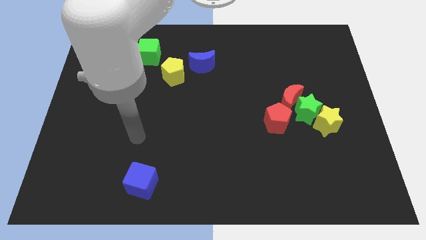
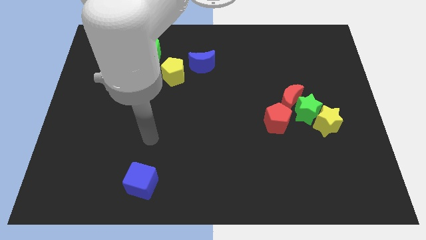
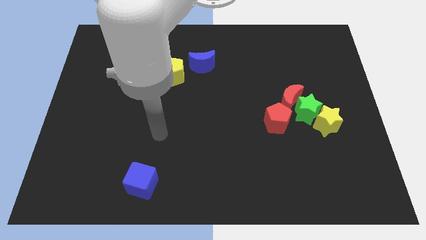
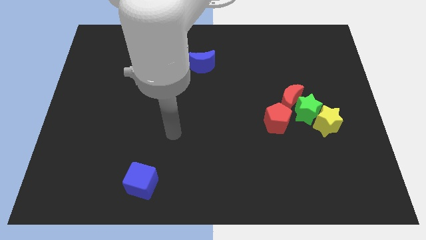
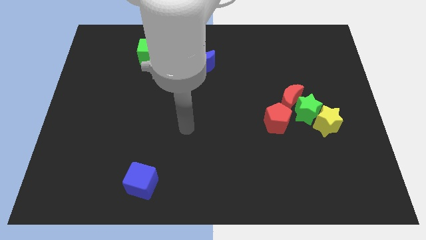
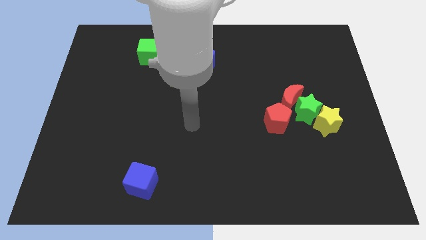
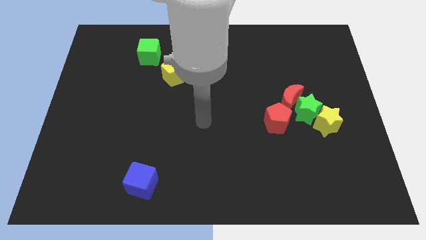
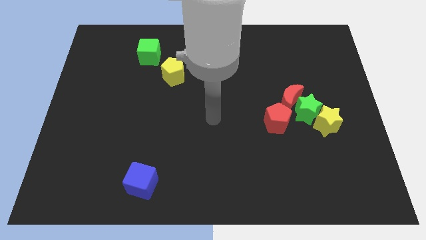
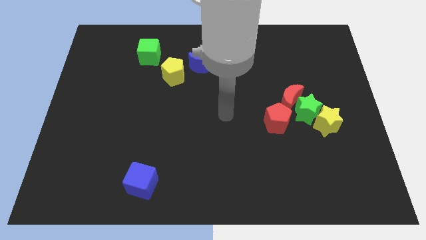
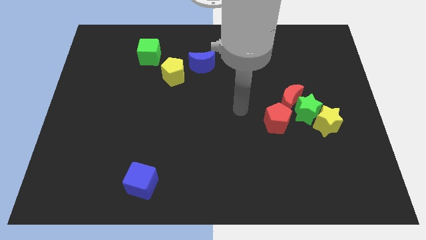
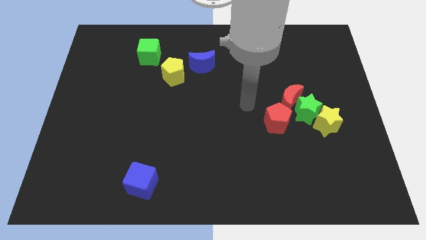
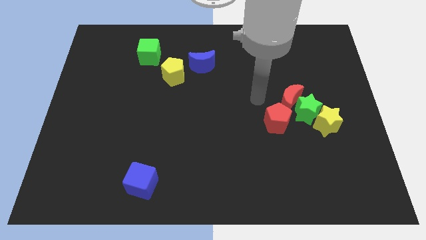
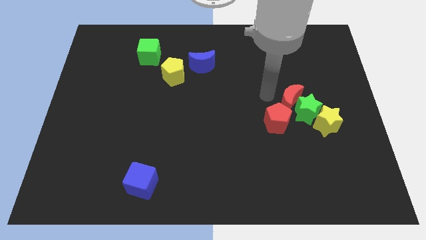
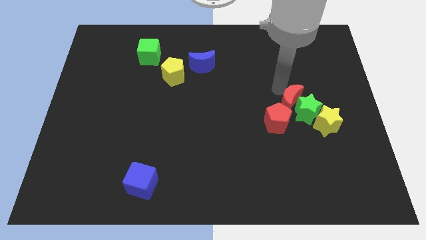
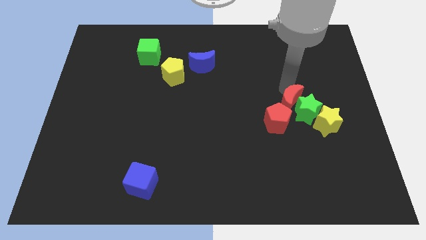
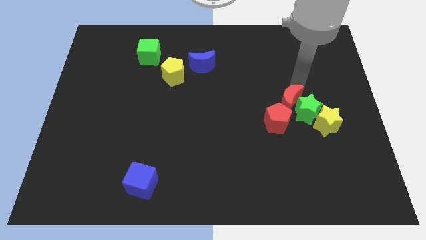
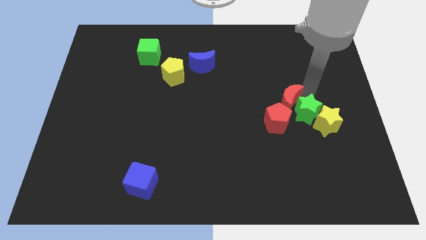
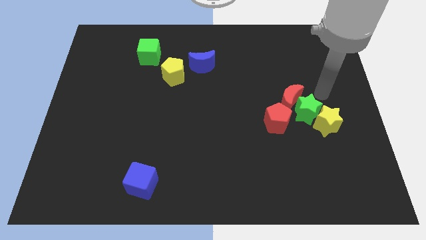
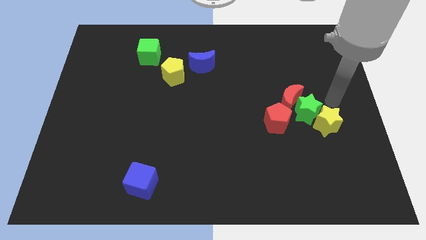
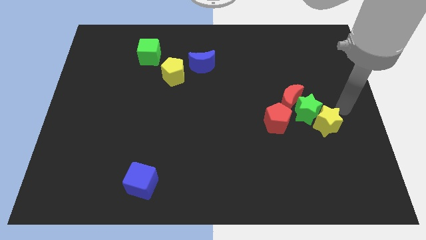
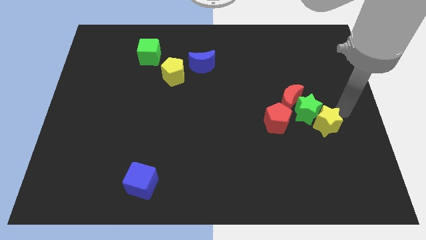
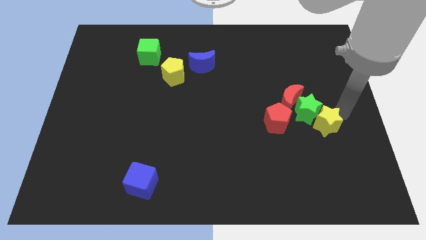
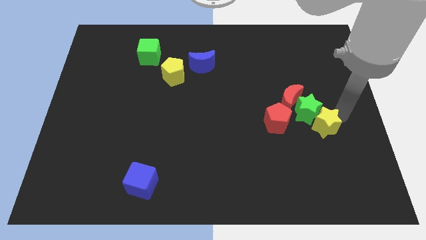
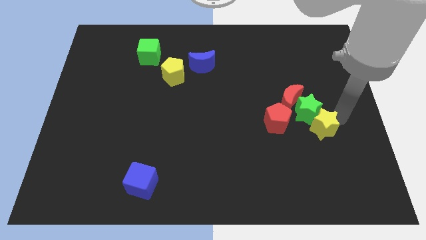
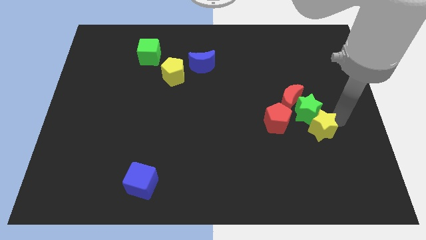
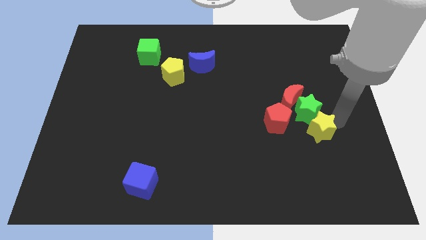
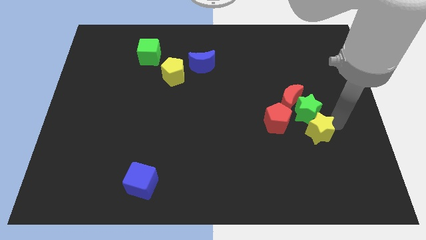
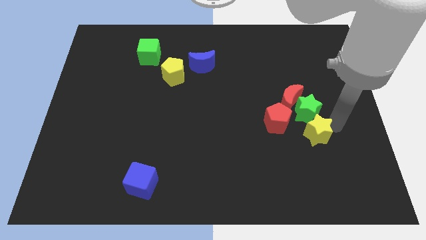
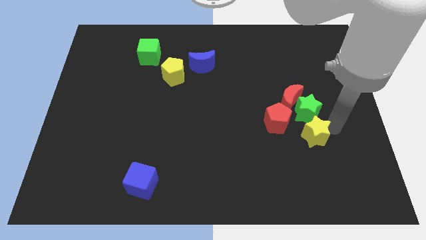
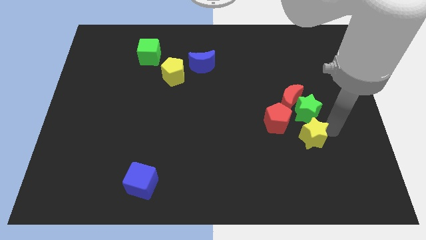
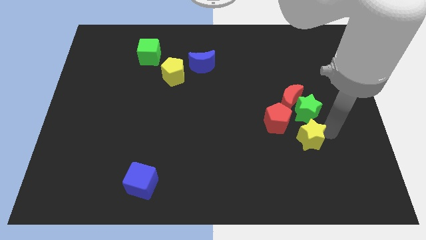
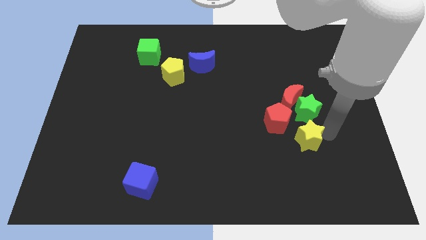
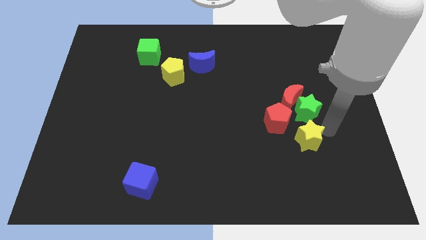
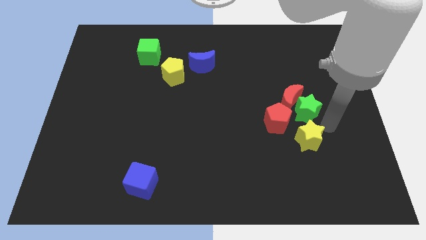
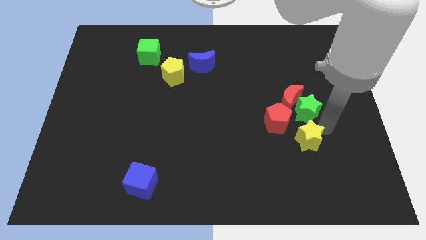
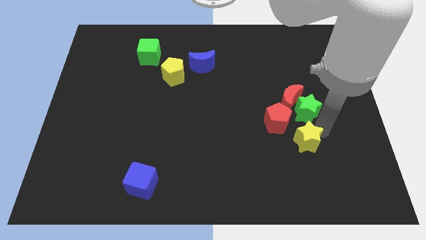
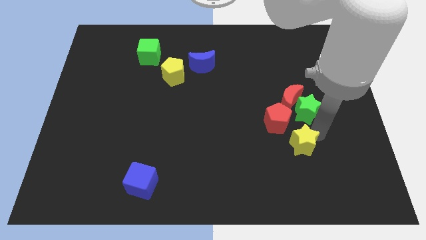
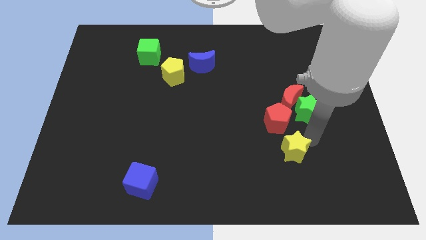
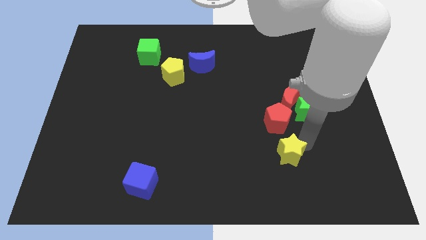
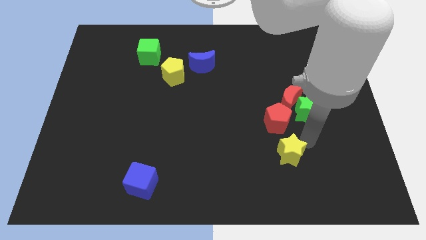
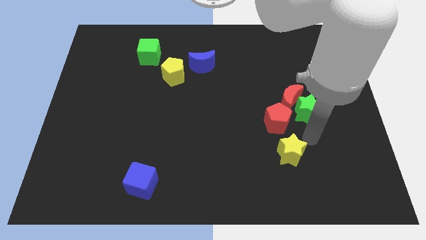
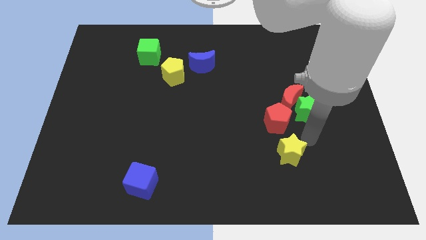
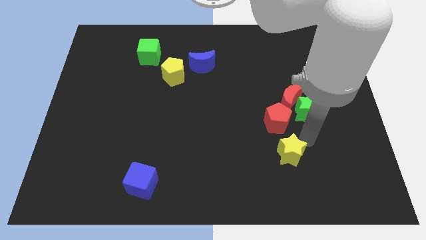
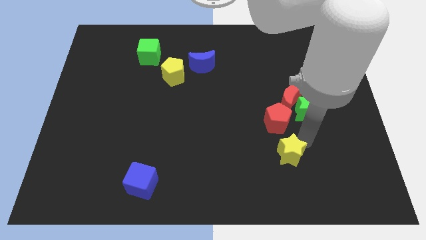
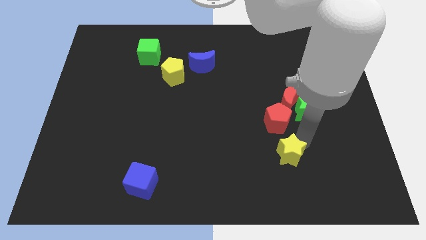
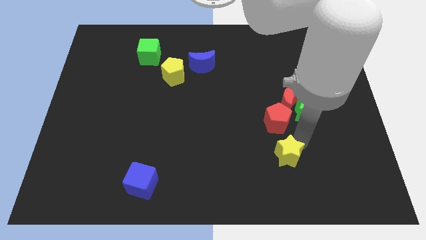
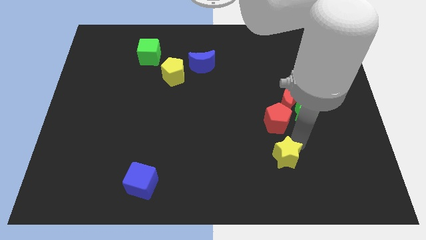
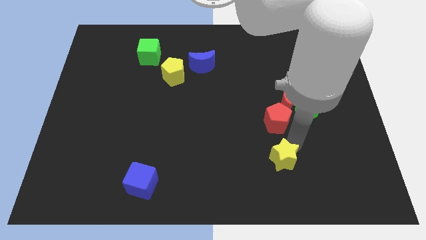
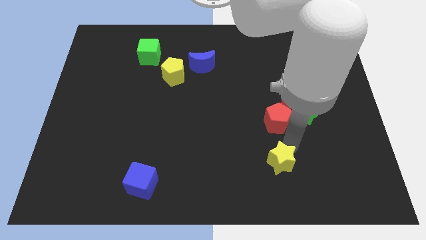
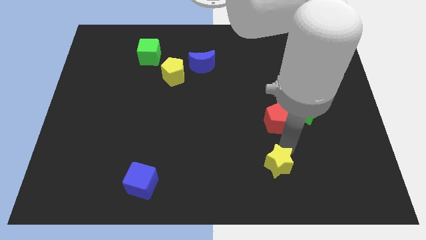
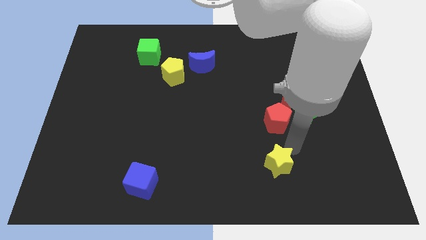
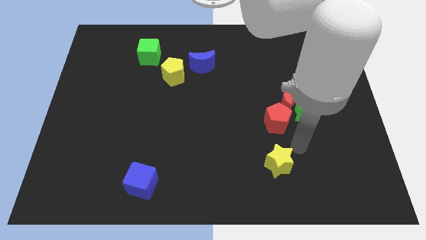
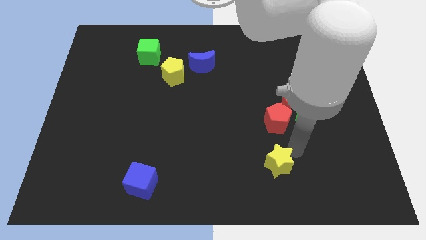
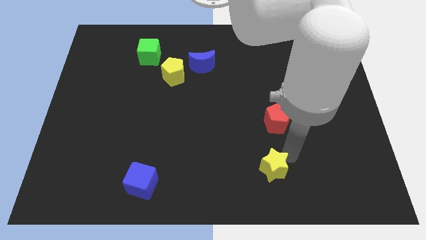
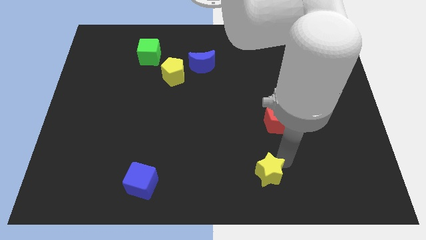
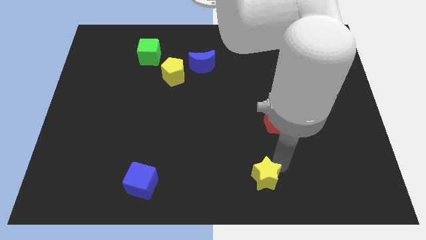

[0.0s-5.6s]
push the yellow star to the bottom

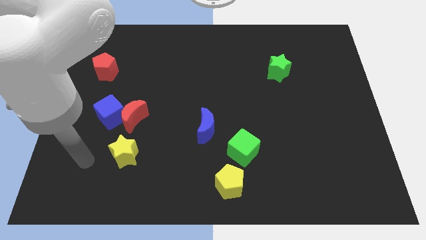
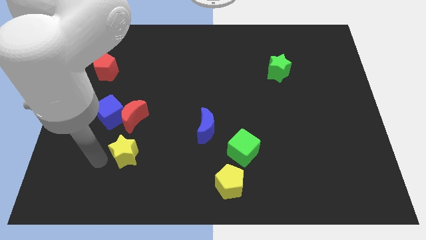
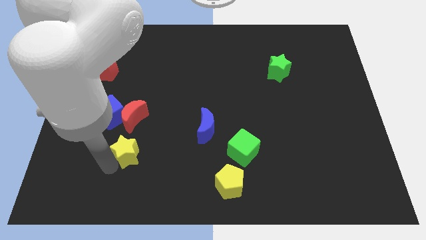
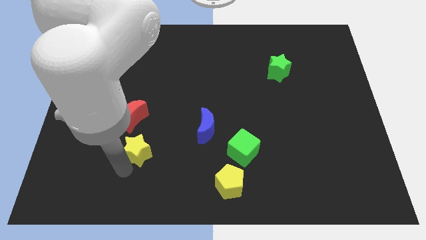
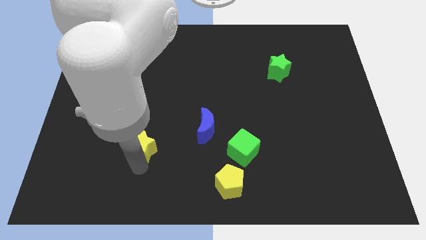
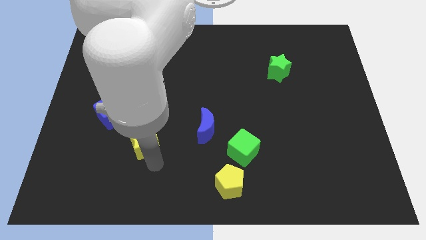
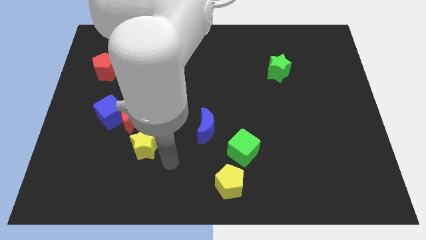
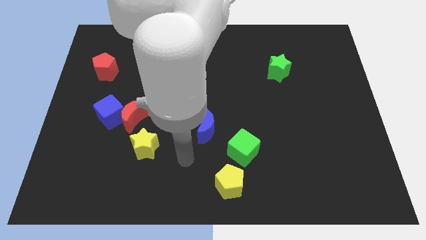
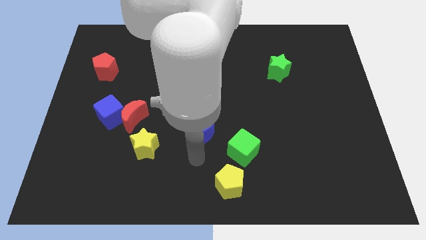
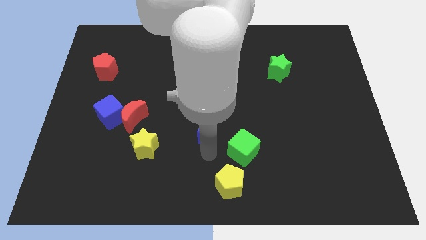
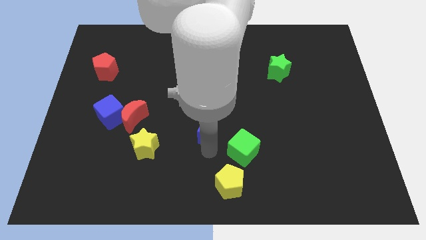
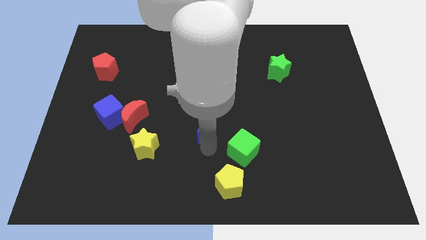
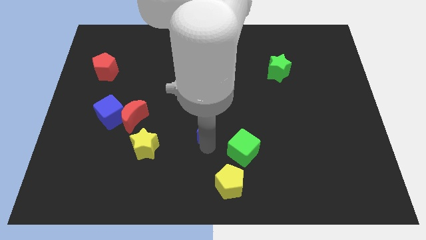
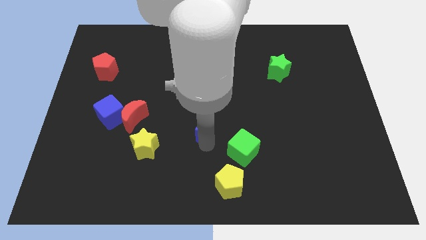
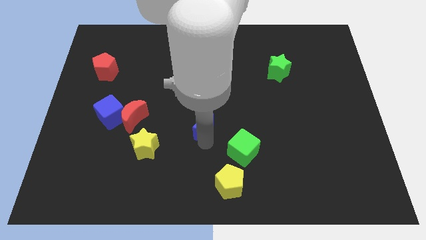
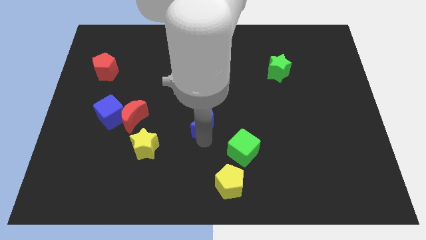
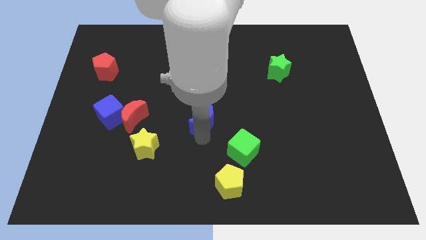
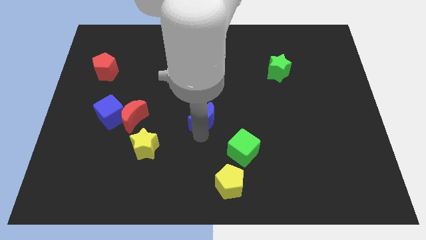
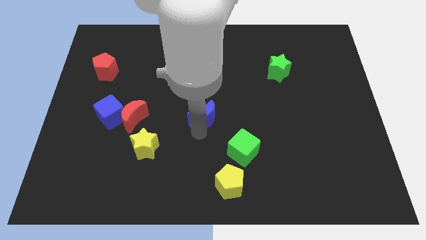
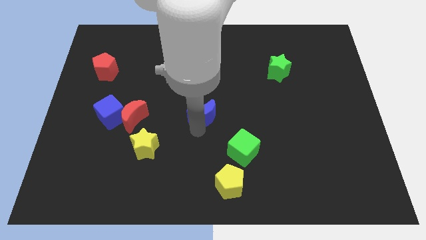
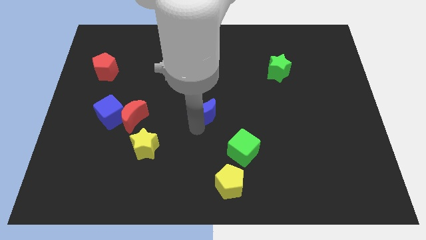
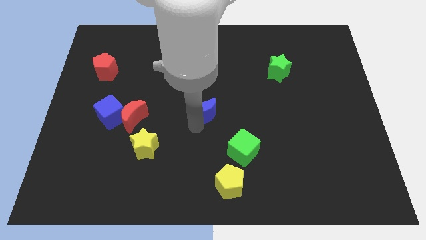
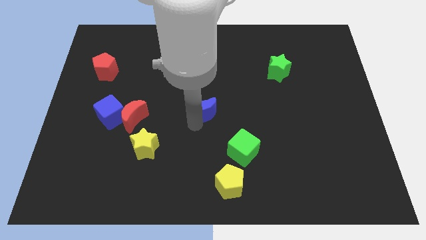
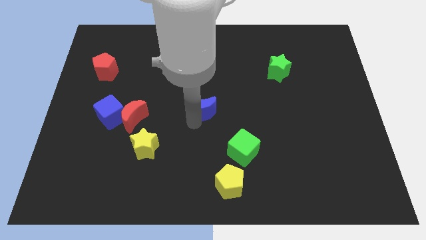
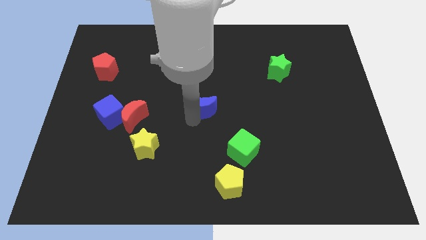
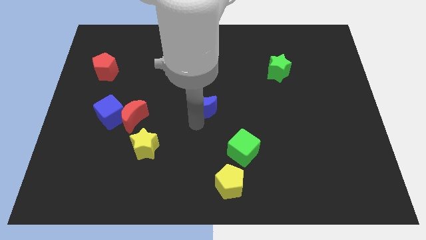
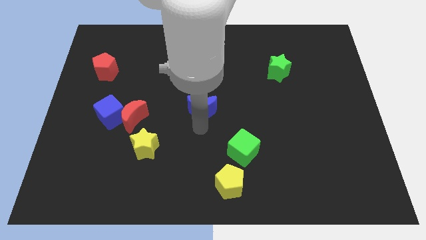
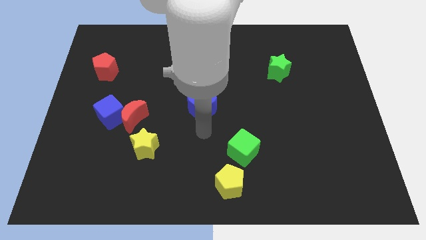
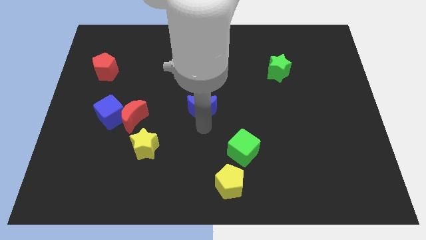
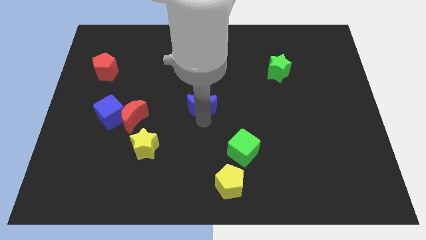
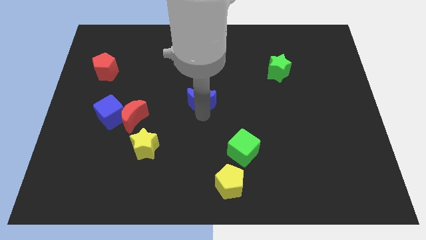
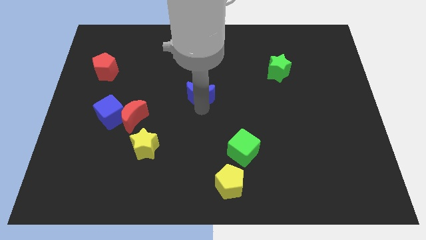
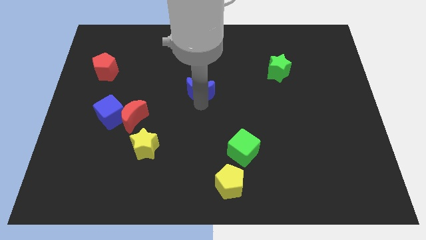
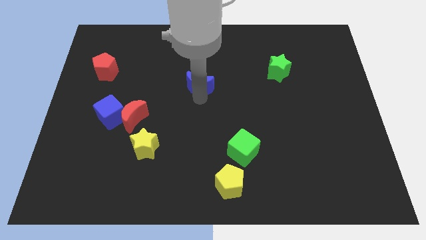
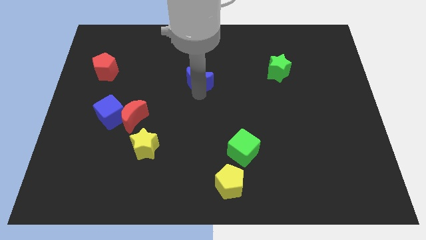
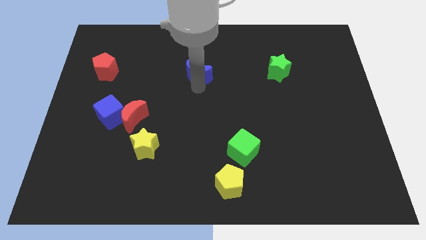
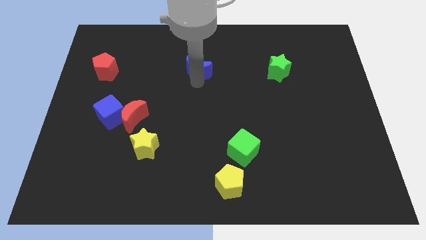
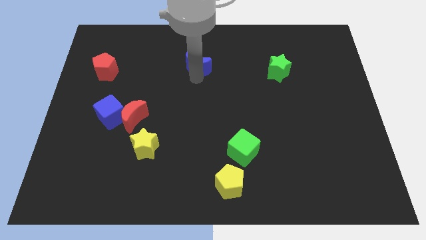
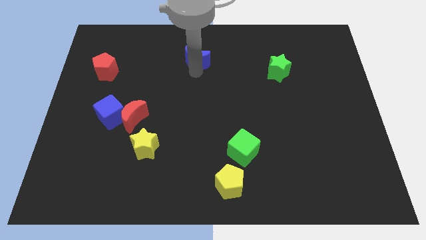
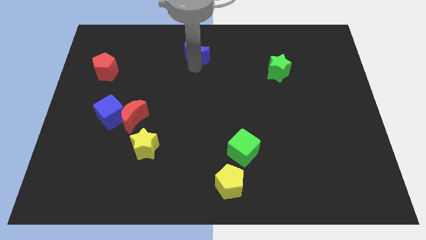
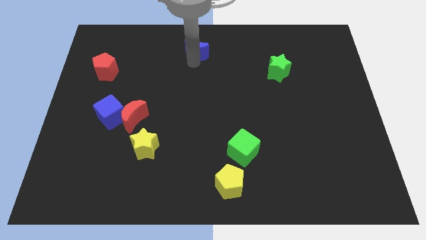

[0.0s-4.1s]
slide the blue moon to the top side
